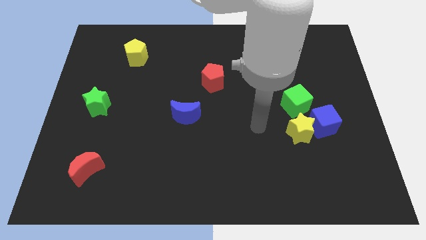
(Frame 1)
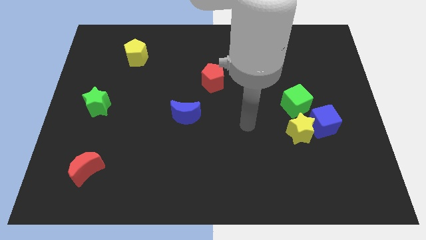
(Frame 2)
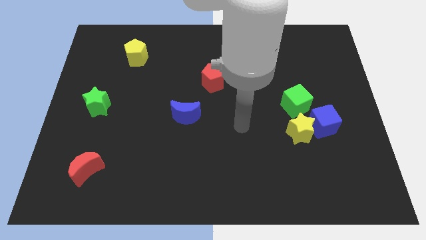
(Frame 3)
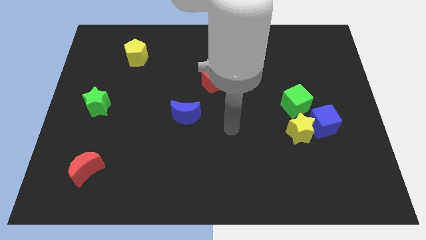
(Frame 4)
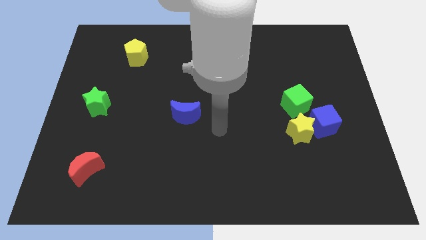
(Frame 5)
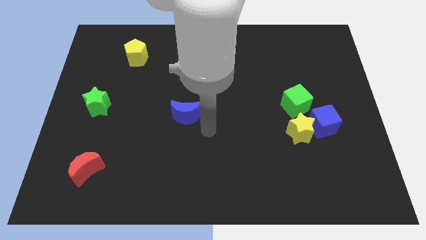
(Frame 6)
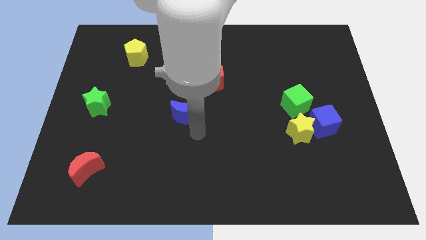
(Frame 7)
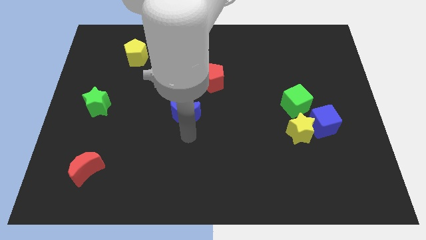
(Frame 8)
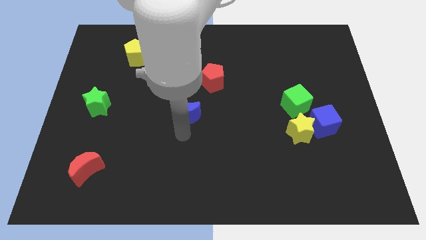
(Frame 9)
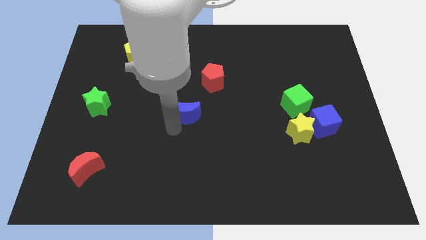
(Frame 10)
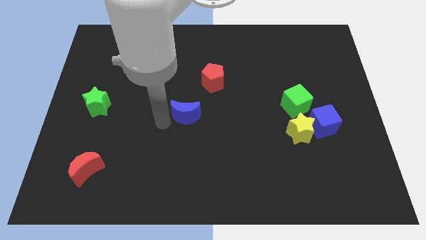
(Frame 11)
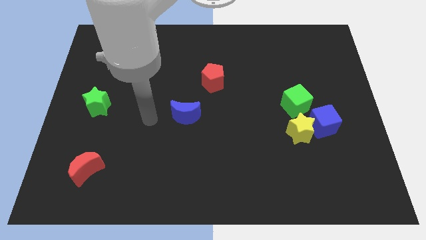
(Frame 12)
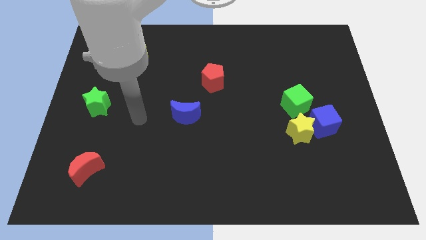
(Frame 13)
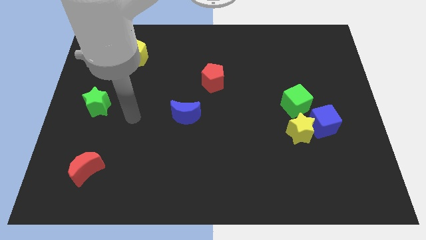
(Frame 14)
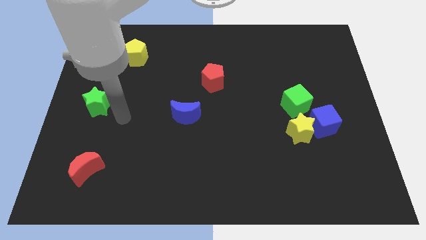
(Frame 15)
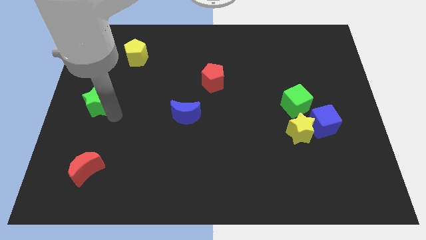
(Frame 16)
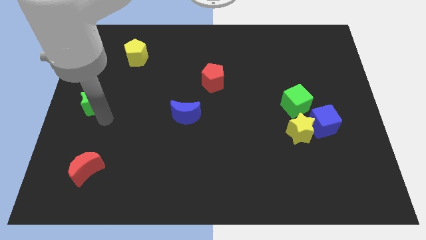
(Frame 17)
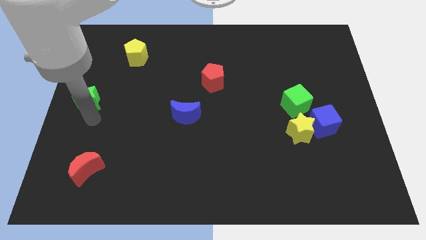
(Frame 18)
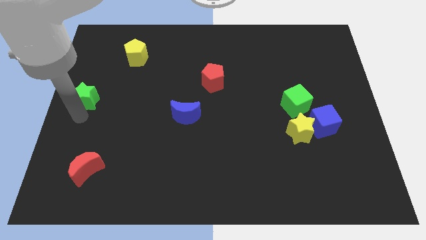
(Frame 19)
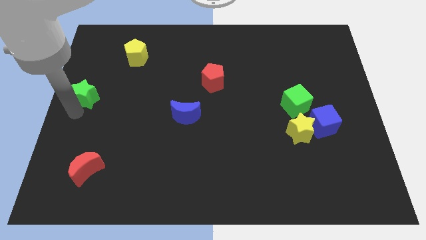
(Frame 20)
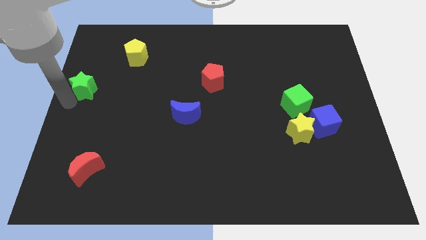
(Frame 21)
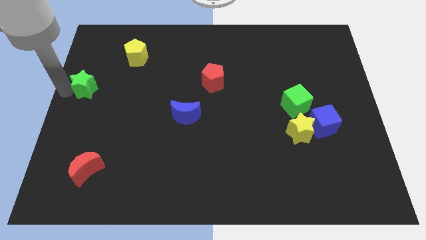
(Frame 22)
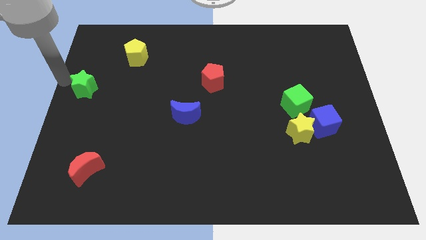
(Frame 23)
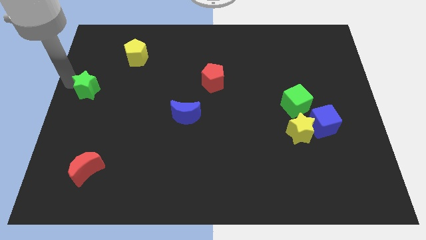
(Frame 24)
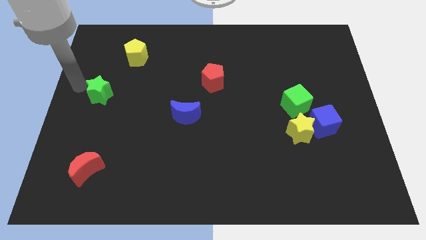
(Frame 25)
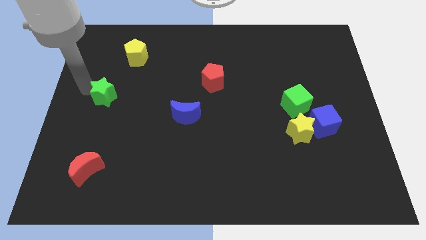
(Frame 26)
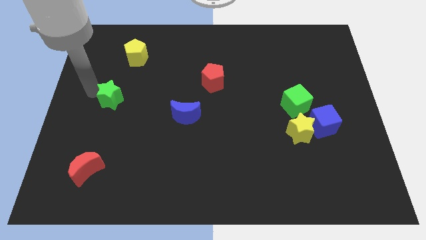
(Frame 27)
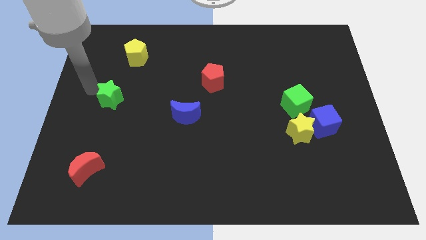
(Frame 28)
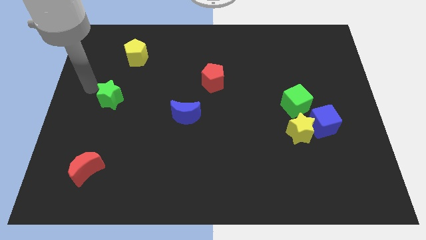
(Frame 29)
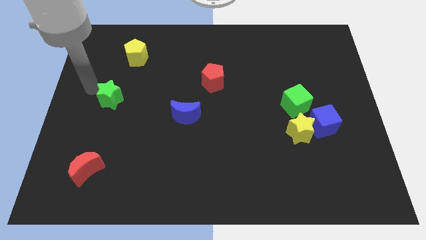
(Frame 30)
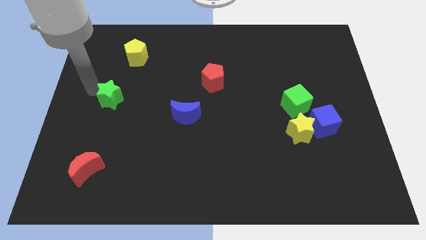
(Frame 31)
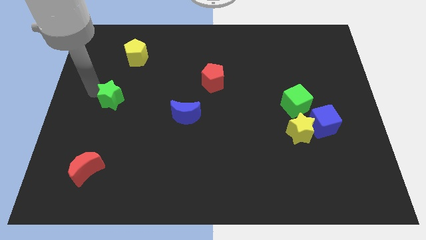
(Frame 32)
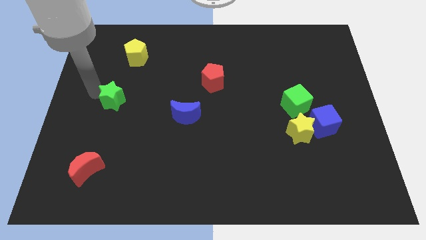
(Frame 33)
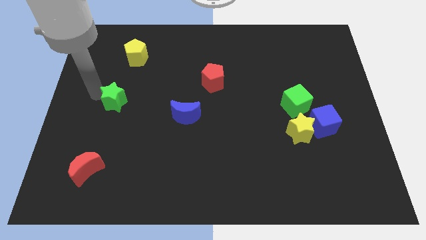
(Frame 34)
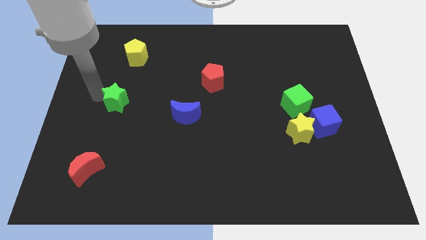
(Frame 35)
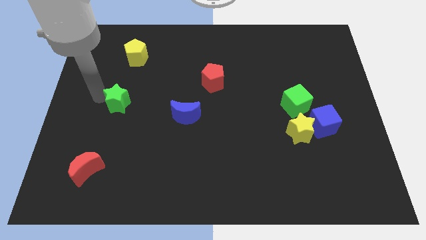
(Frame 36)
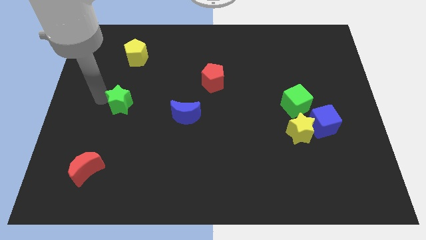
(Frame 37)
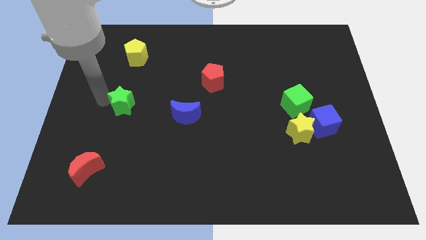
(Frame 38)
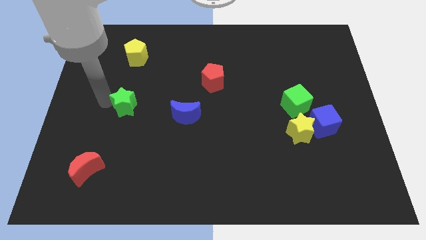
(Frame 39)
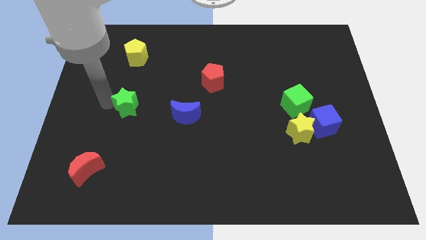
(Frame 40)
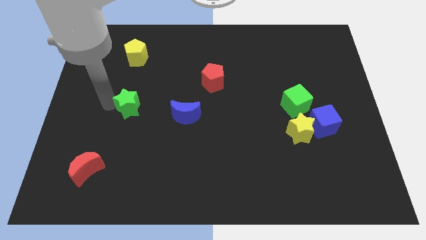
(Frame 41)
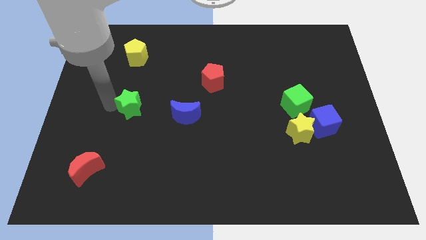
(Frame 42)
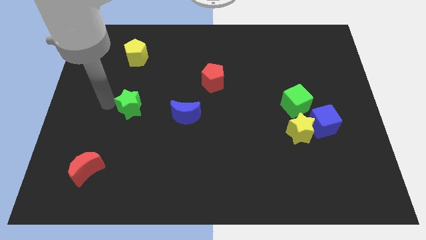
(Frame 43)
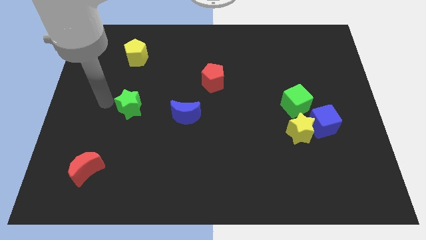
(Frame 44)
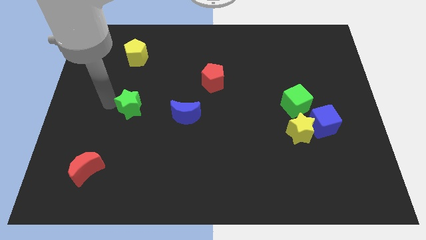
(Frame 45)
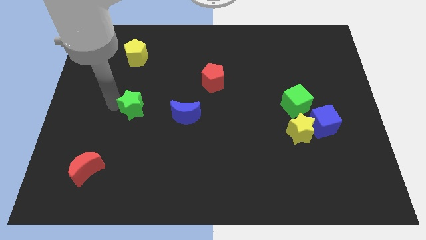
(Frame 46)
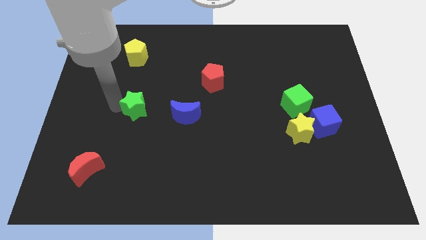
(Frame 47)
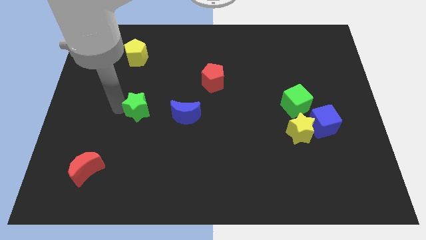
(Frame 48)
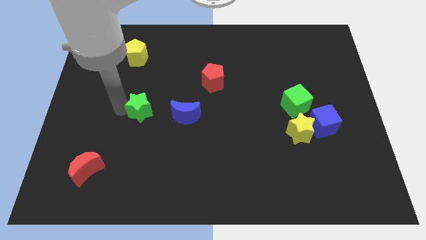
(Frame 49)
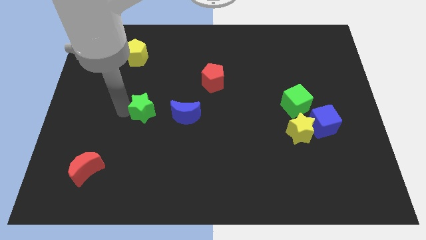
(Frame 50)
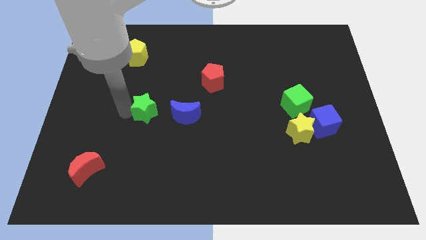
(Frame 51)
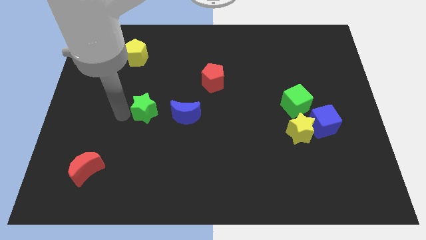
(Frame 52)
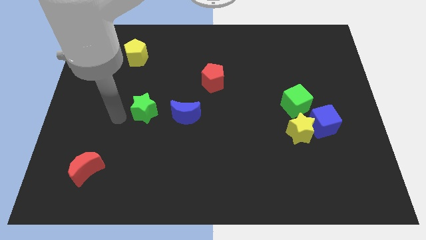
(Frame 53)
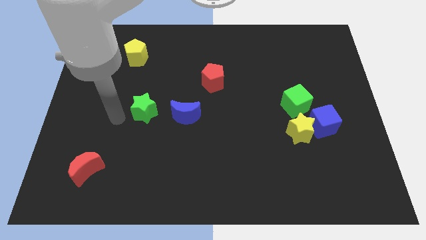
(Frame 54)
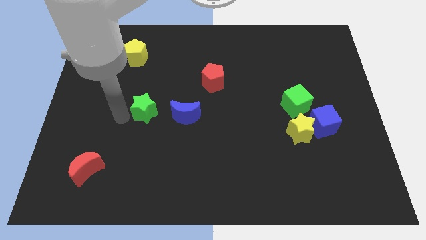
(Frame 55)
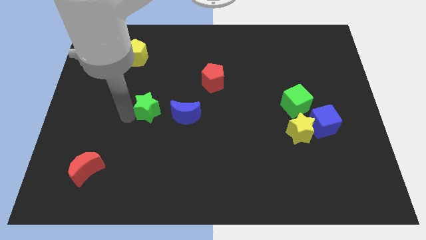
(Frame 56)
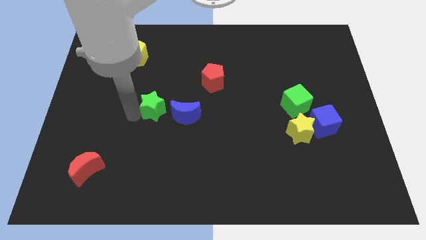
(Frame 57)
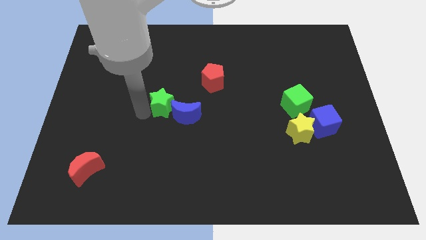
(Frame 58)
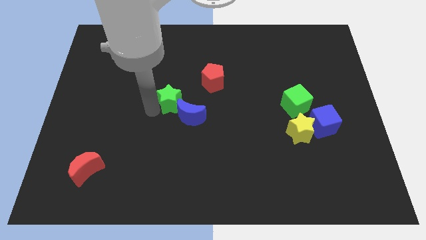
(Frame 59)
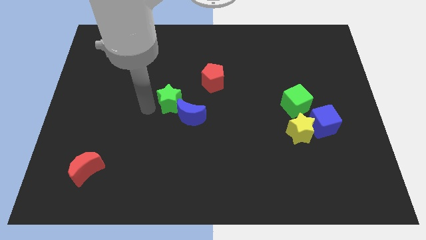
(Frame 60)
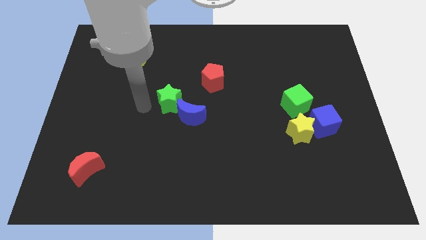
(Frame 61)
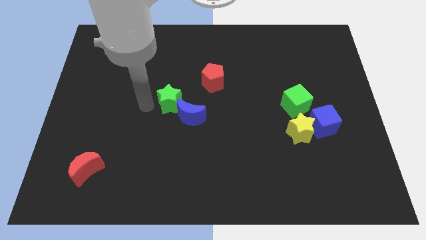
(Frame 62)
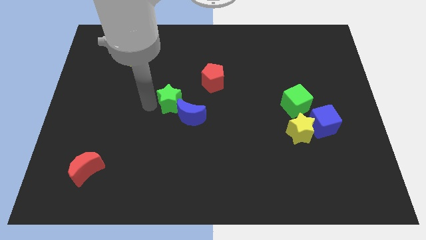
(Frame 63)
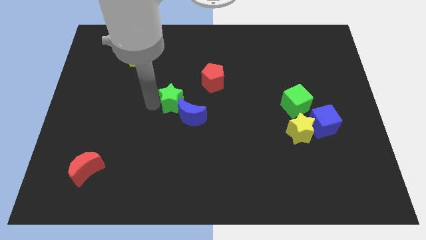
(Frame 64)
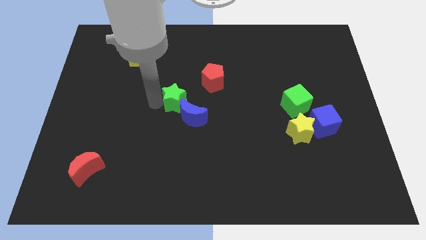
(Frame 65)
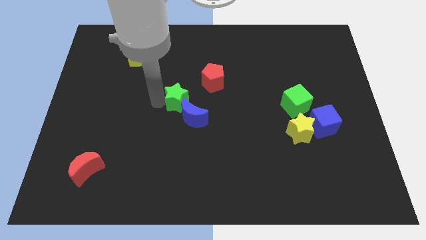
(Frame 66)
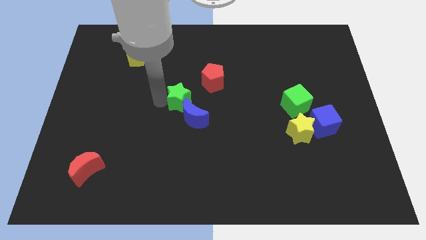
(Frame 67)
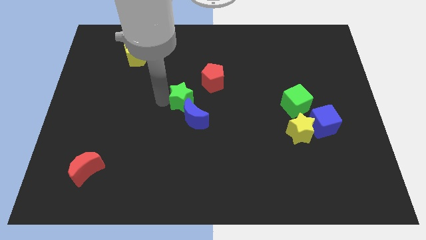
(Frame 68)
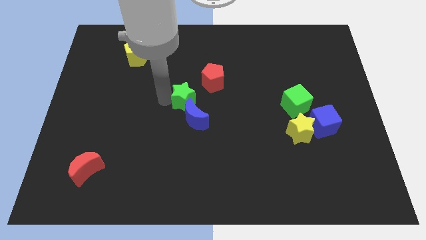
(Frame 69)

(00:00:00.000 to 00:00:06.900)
push the green star right

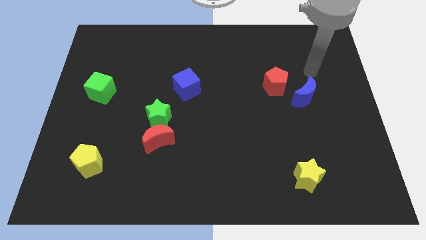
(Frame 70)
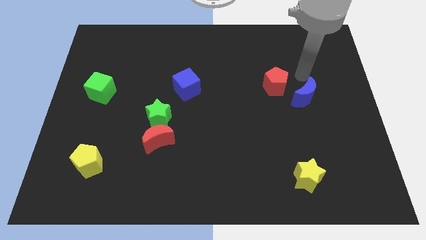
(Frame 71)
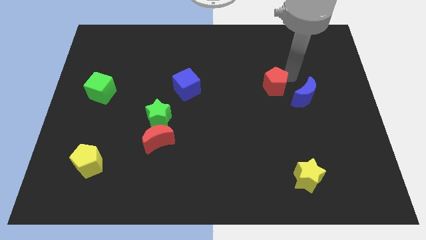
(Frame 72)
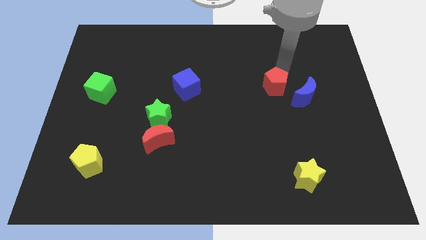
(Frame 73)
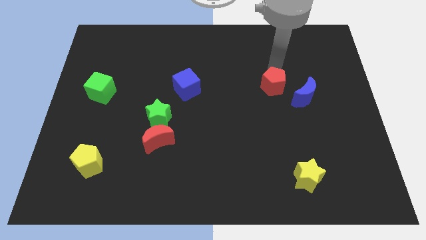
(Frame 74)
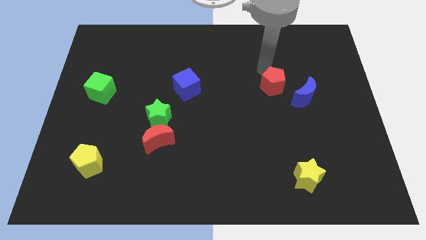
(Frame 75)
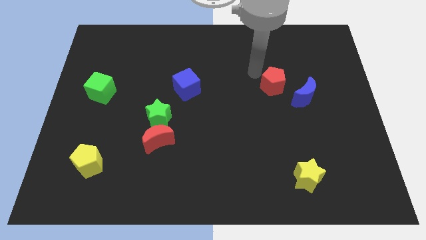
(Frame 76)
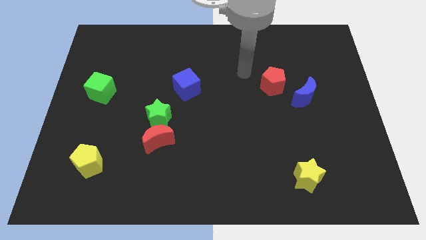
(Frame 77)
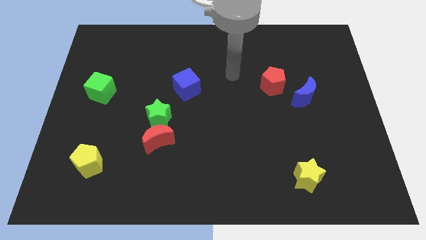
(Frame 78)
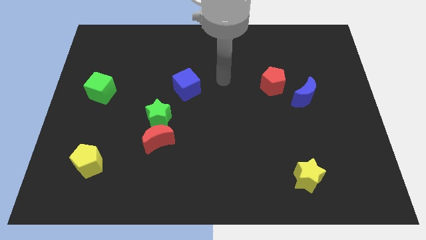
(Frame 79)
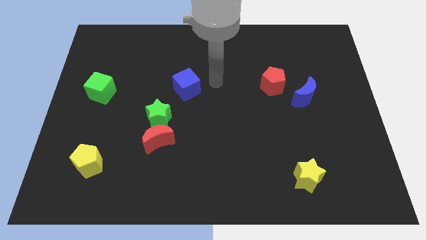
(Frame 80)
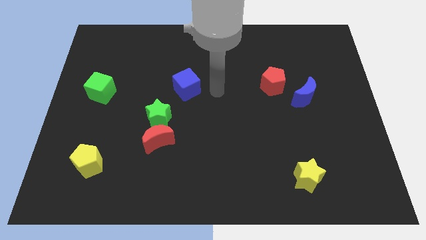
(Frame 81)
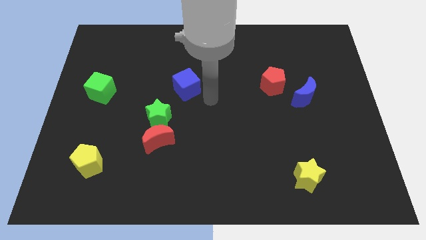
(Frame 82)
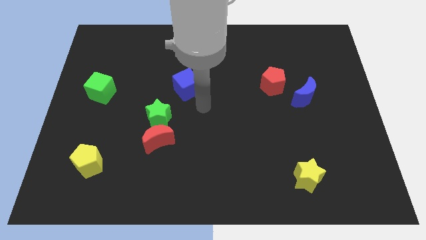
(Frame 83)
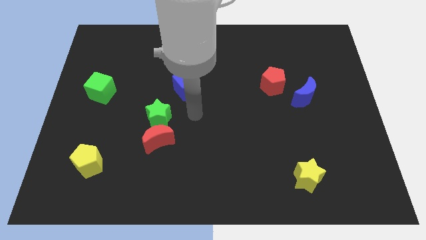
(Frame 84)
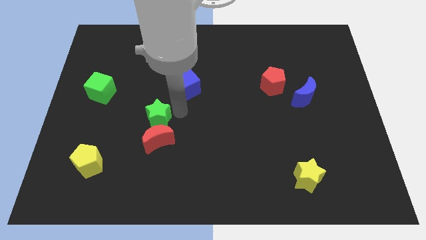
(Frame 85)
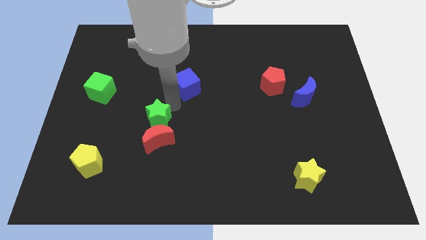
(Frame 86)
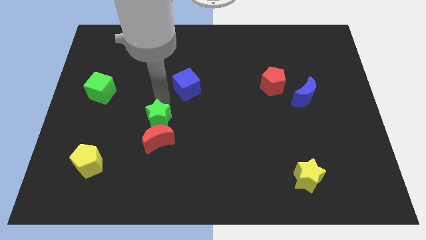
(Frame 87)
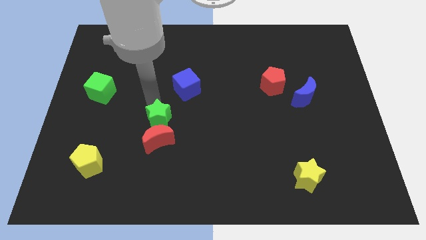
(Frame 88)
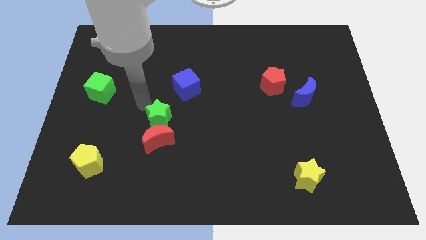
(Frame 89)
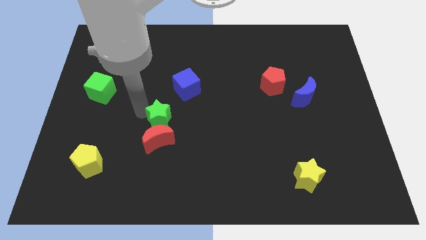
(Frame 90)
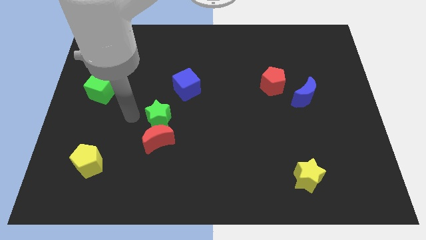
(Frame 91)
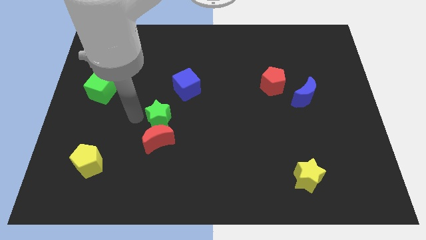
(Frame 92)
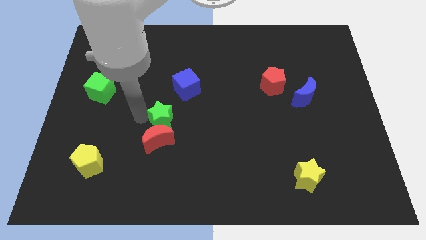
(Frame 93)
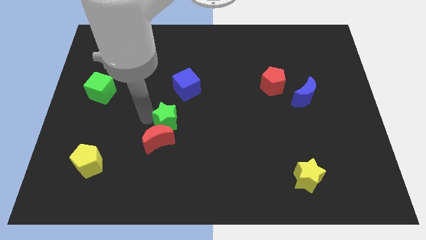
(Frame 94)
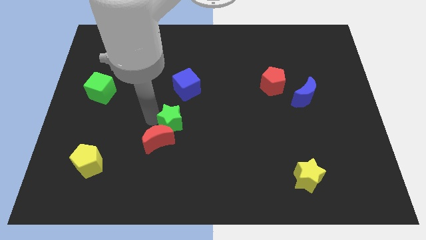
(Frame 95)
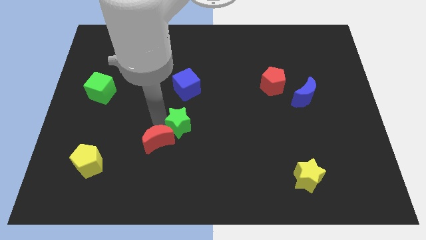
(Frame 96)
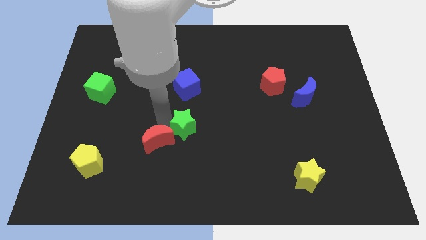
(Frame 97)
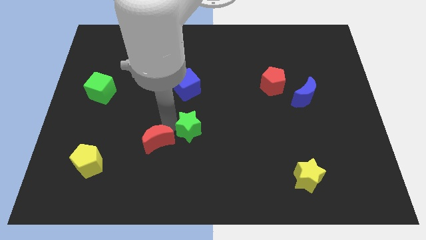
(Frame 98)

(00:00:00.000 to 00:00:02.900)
slide the green star right a bit
